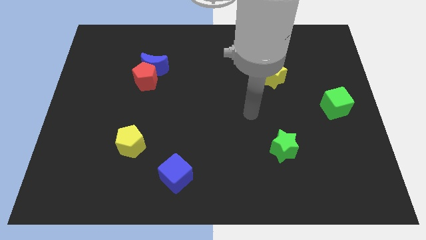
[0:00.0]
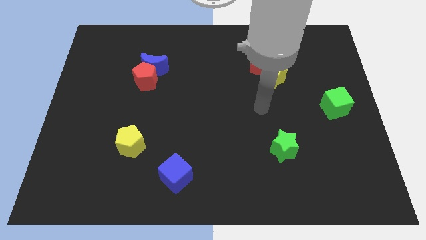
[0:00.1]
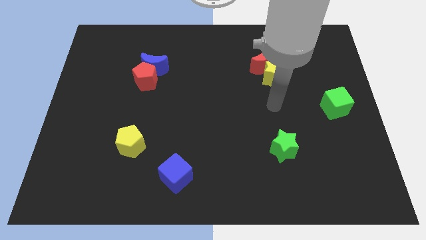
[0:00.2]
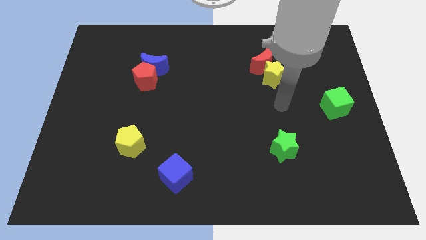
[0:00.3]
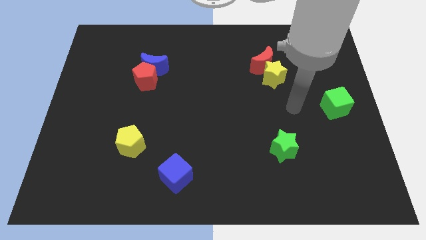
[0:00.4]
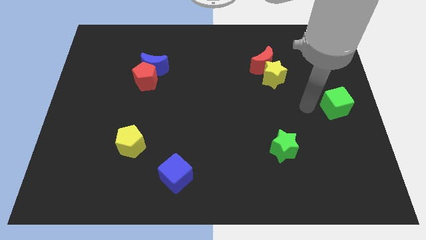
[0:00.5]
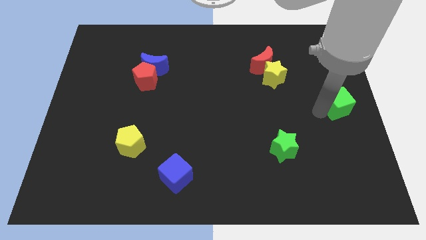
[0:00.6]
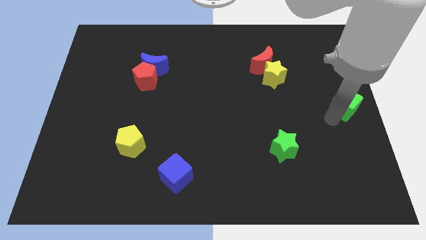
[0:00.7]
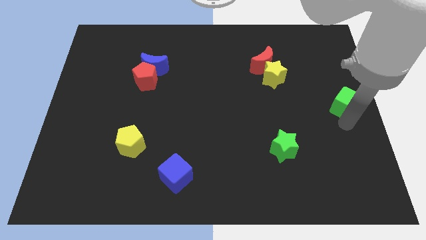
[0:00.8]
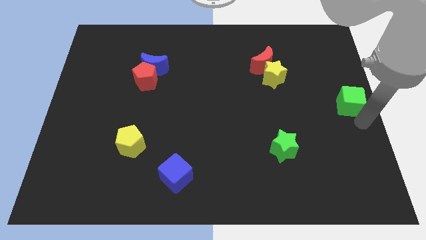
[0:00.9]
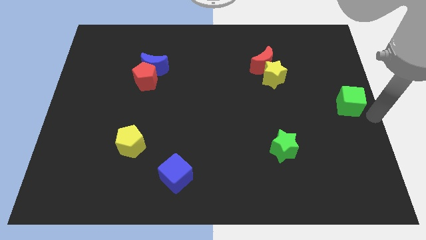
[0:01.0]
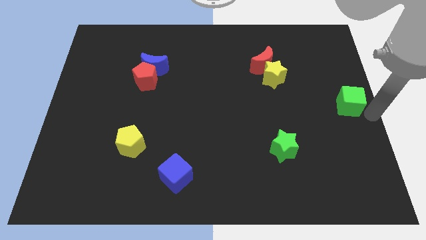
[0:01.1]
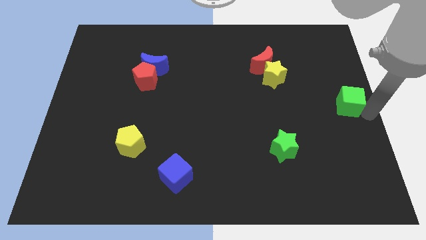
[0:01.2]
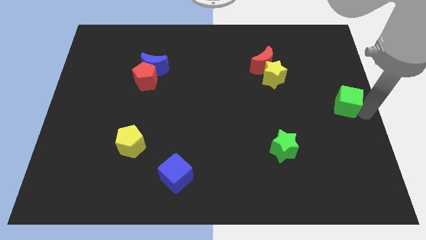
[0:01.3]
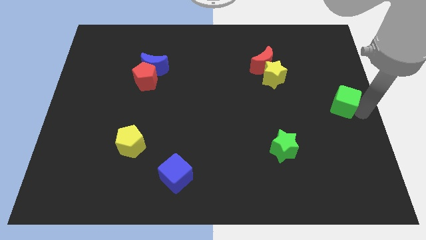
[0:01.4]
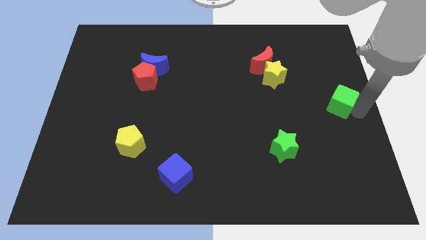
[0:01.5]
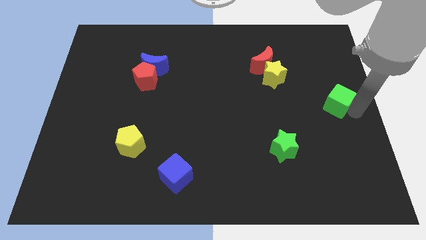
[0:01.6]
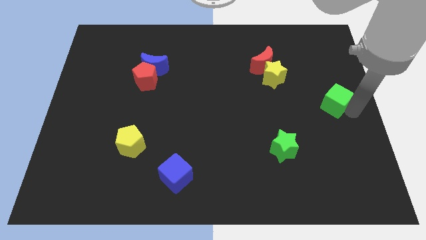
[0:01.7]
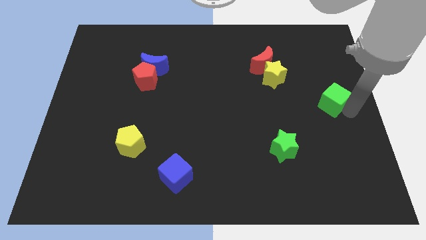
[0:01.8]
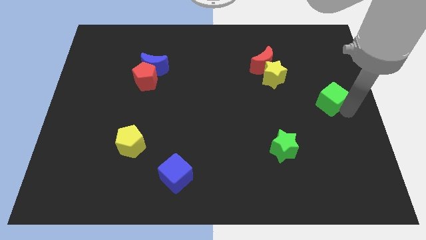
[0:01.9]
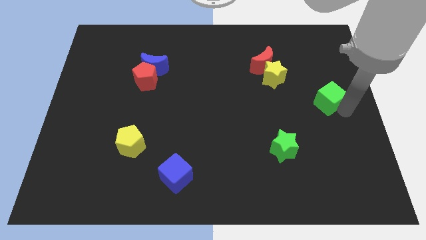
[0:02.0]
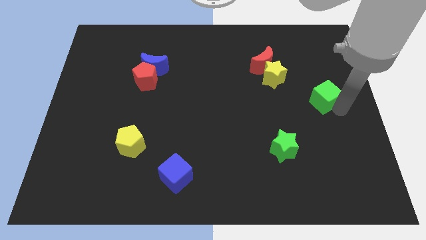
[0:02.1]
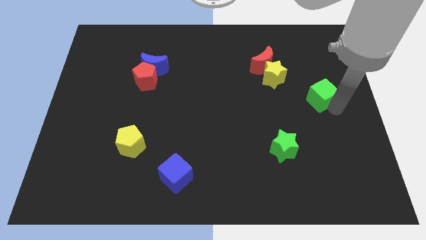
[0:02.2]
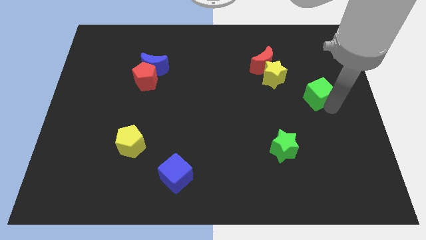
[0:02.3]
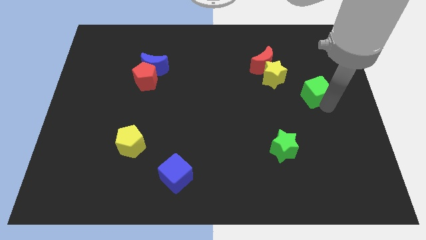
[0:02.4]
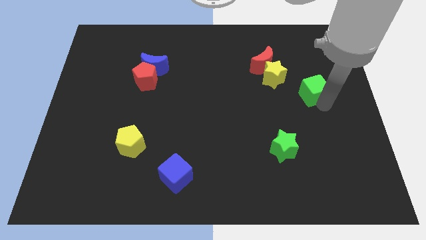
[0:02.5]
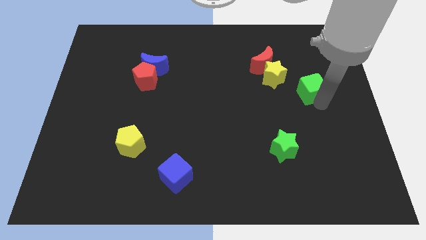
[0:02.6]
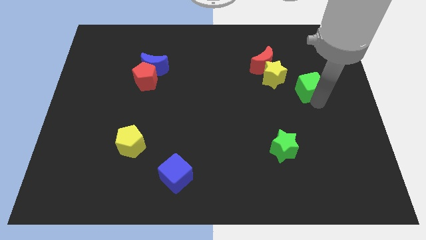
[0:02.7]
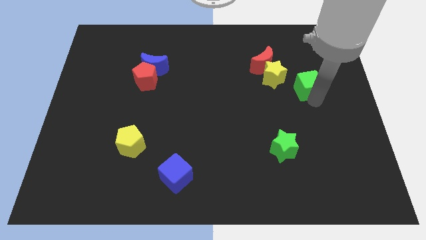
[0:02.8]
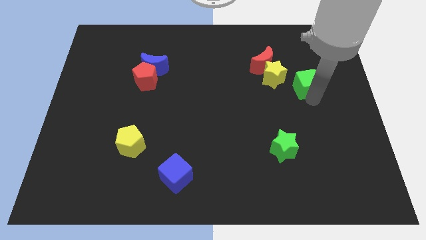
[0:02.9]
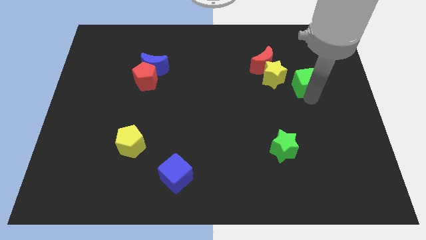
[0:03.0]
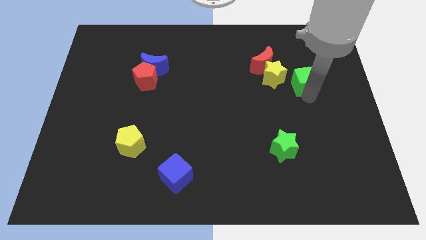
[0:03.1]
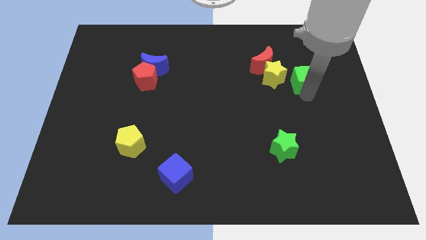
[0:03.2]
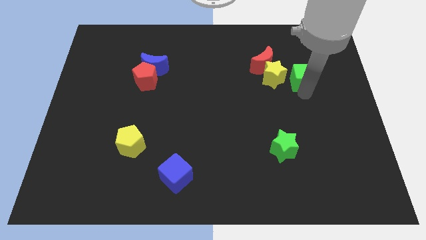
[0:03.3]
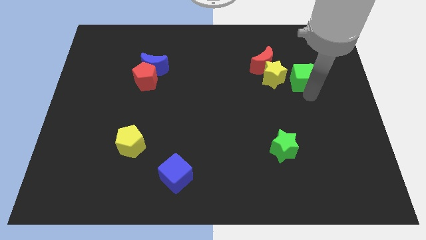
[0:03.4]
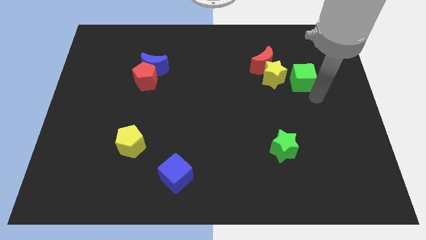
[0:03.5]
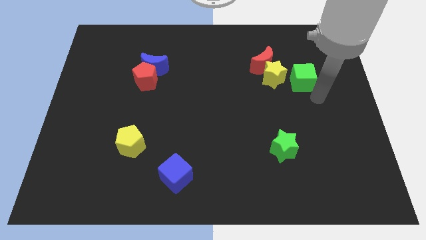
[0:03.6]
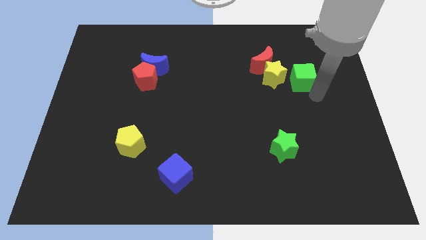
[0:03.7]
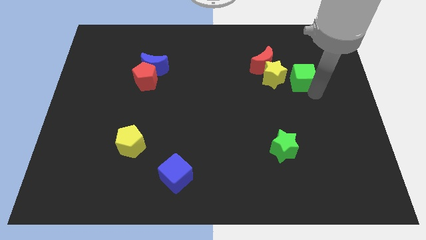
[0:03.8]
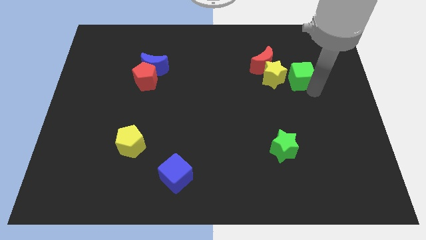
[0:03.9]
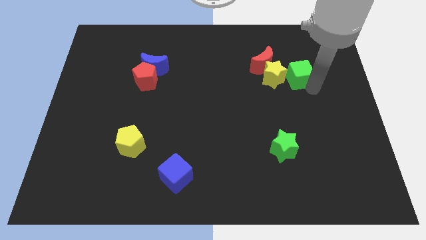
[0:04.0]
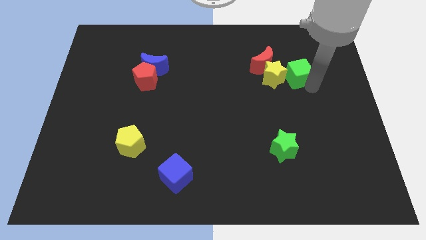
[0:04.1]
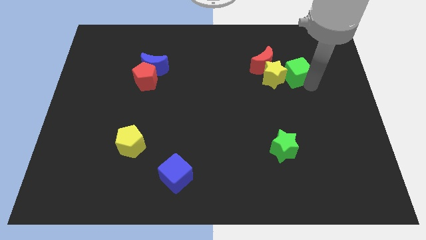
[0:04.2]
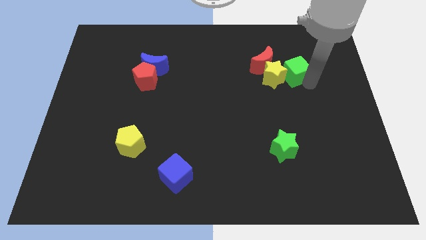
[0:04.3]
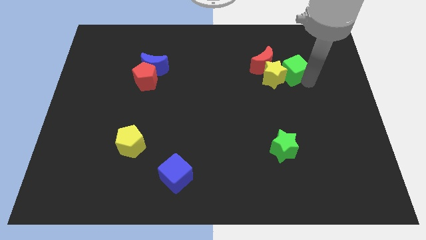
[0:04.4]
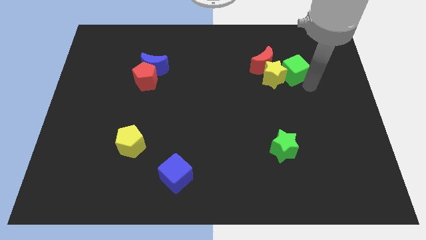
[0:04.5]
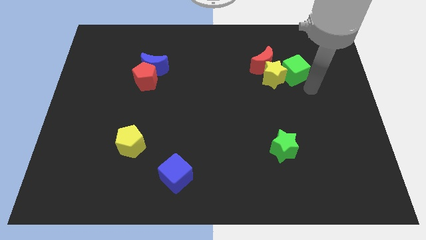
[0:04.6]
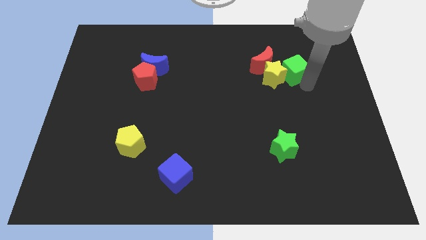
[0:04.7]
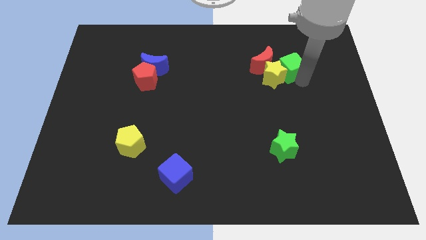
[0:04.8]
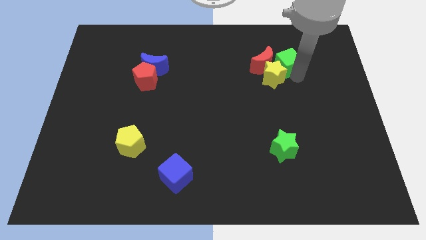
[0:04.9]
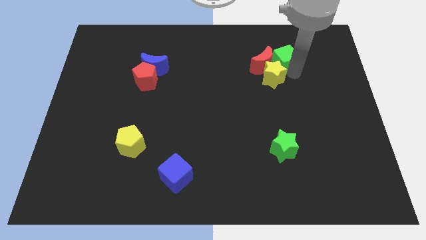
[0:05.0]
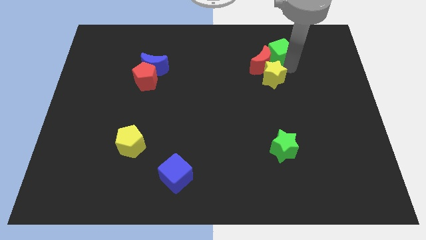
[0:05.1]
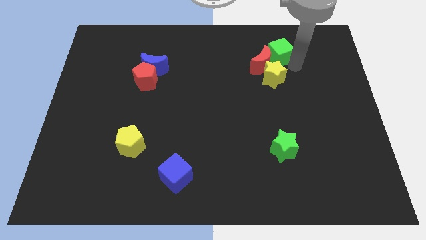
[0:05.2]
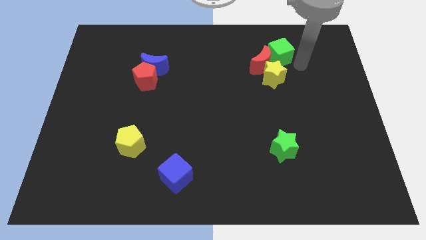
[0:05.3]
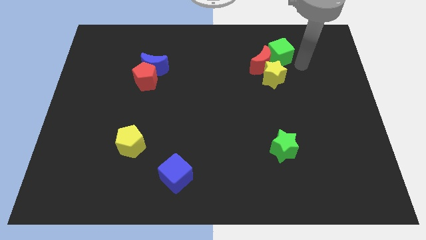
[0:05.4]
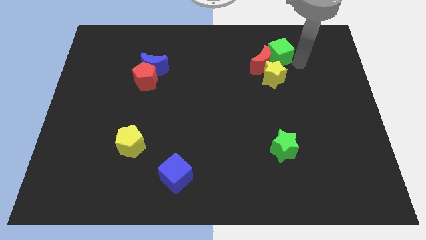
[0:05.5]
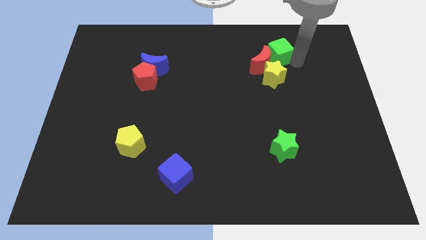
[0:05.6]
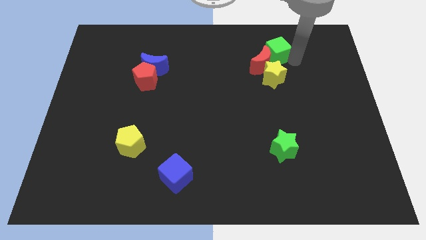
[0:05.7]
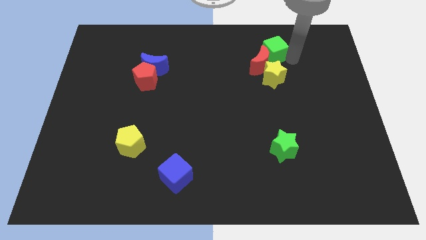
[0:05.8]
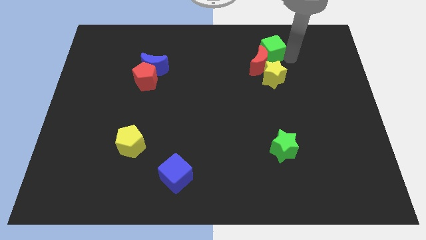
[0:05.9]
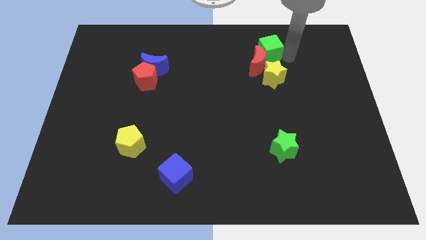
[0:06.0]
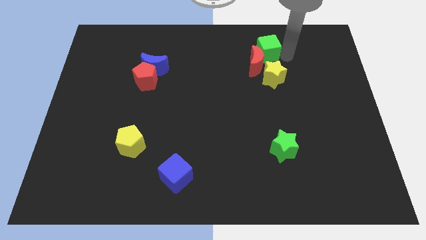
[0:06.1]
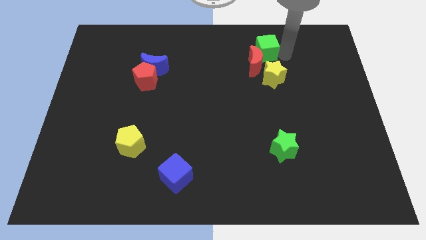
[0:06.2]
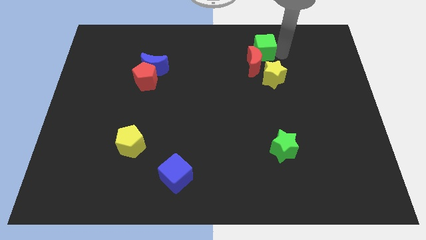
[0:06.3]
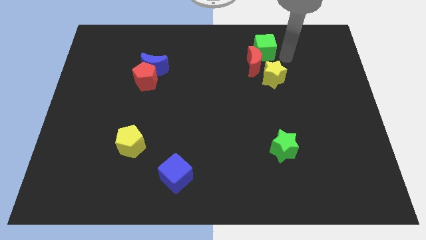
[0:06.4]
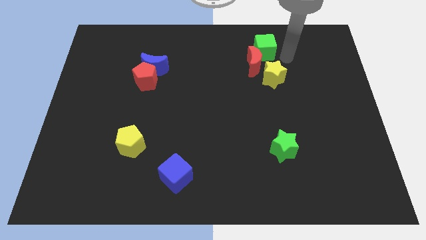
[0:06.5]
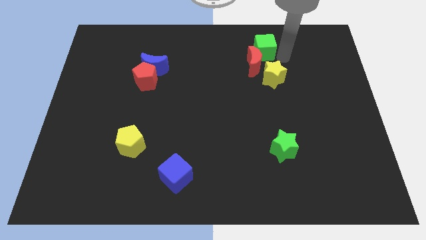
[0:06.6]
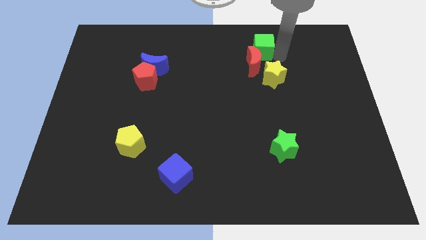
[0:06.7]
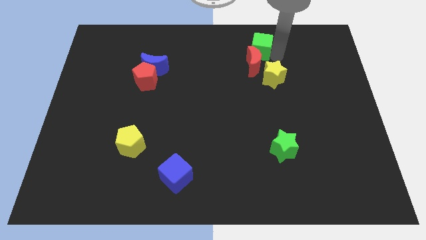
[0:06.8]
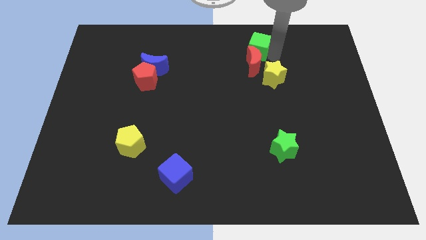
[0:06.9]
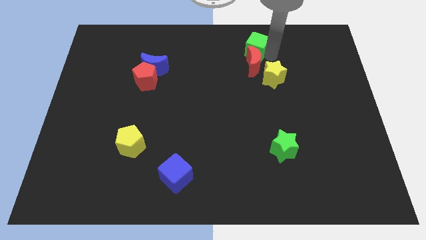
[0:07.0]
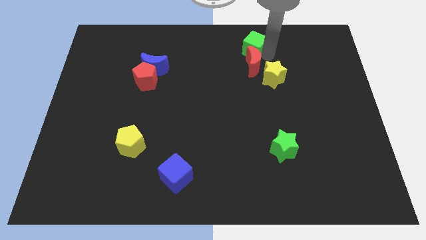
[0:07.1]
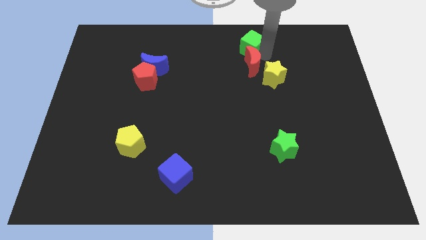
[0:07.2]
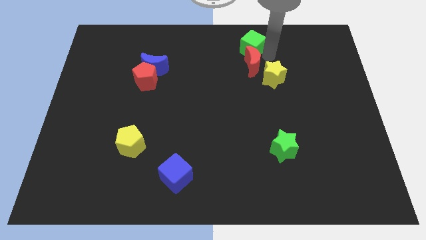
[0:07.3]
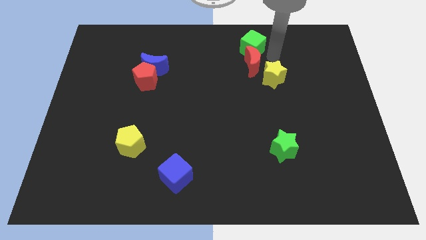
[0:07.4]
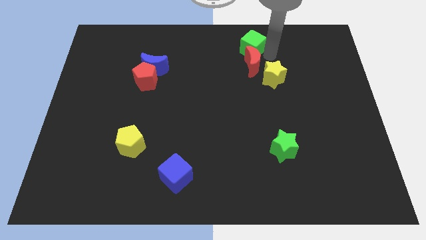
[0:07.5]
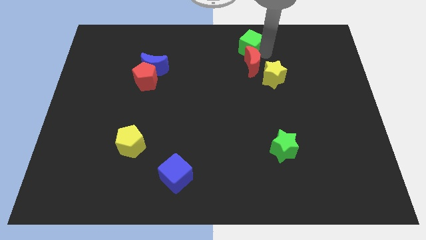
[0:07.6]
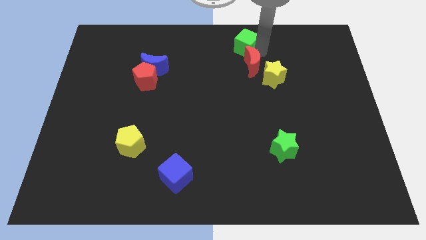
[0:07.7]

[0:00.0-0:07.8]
push the green cube to the towards your base
